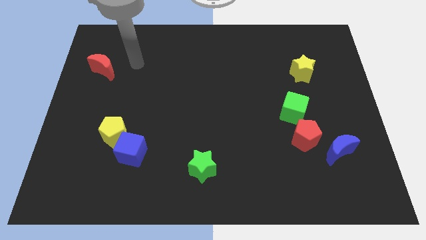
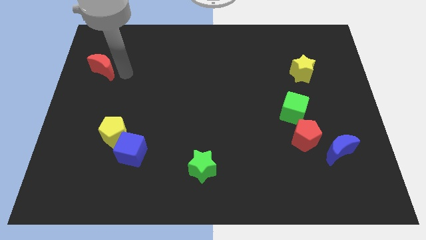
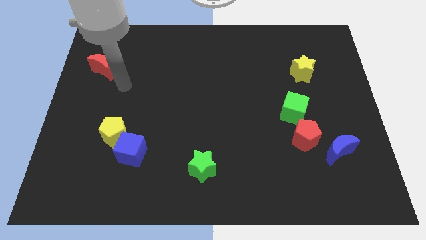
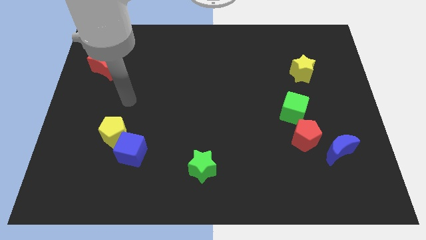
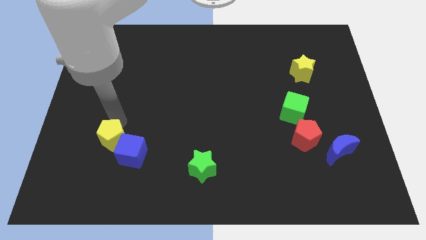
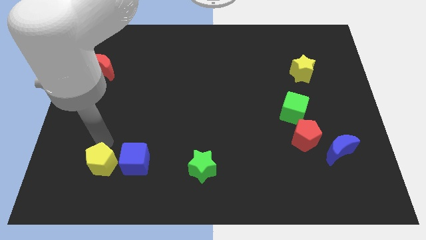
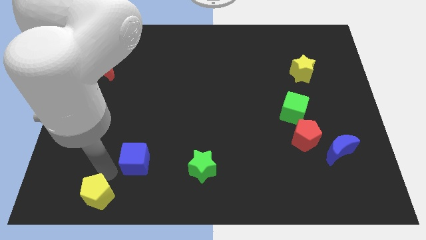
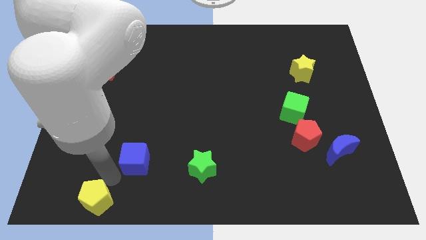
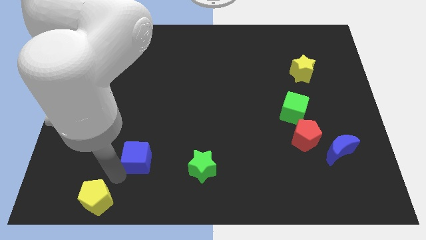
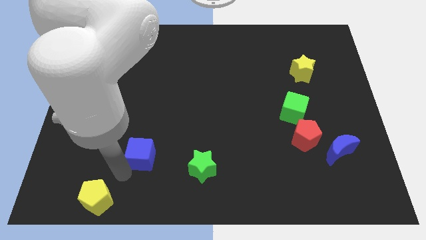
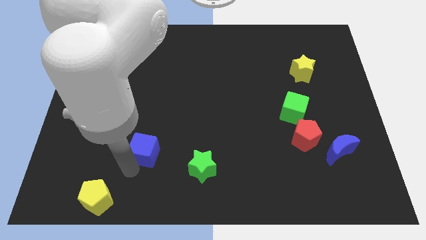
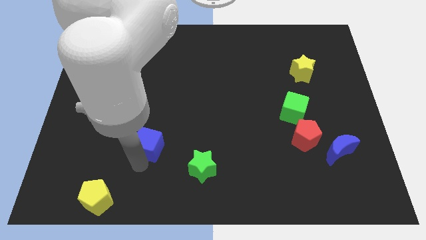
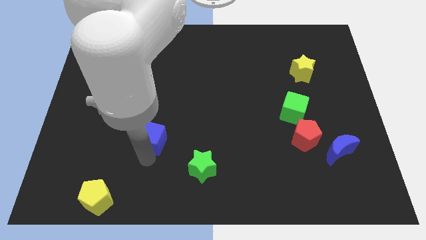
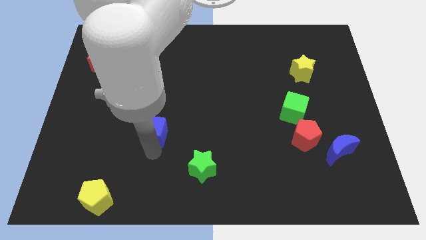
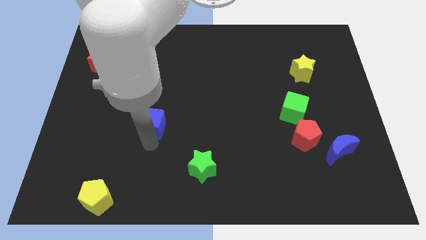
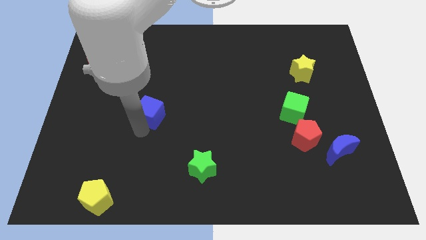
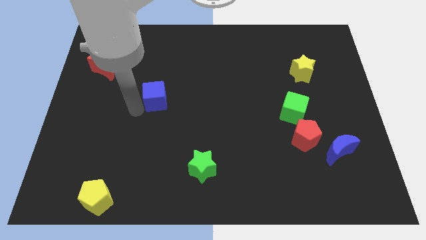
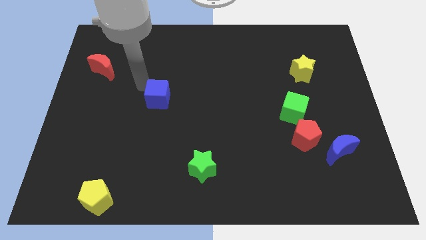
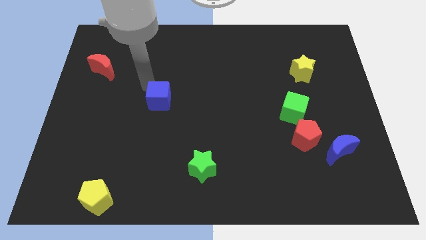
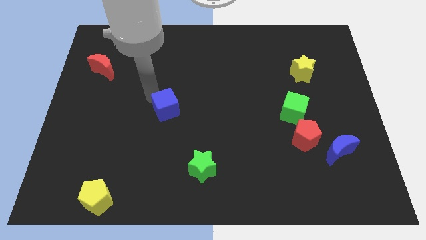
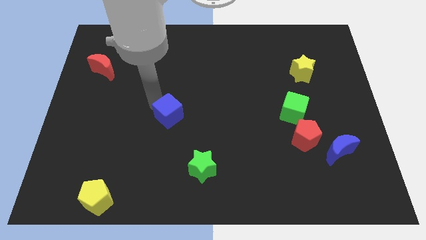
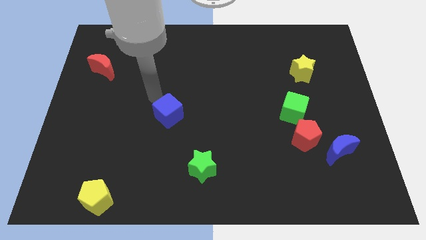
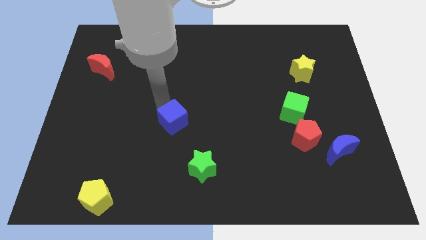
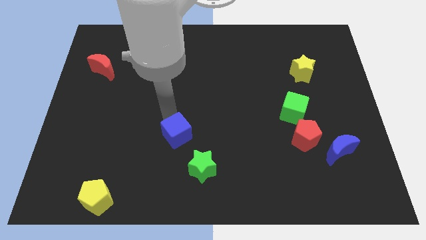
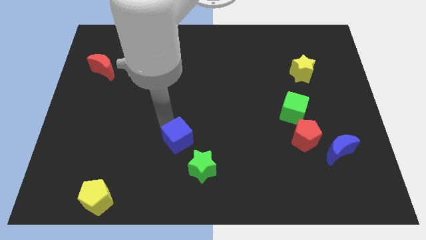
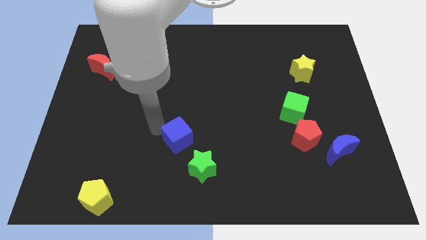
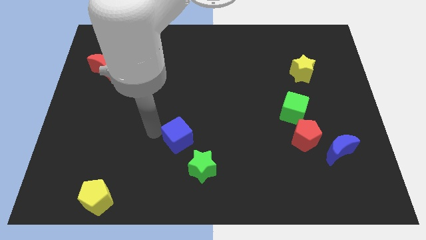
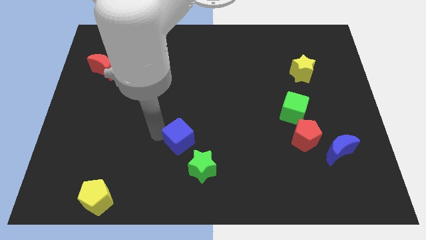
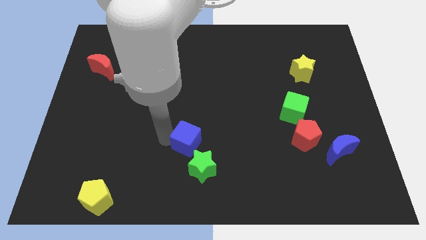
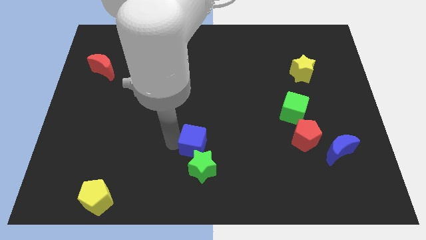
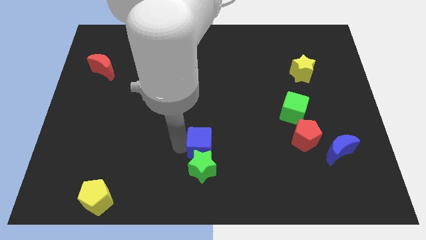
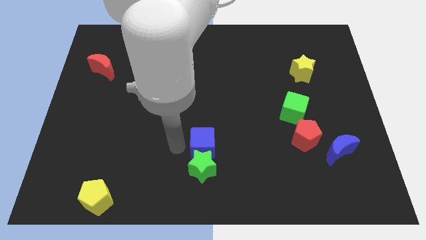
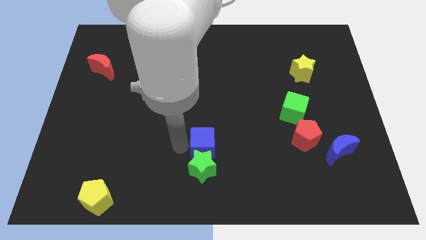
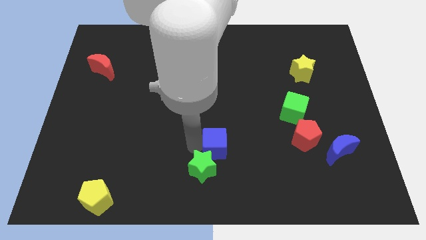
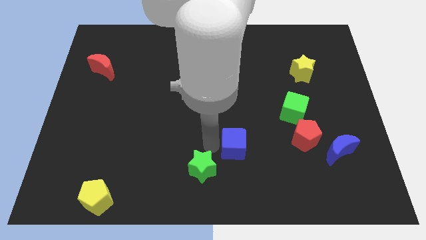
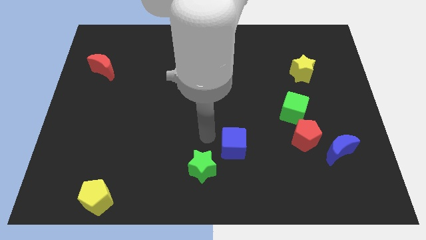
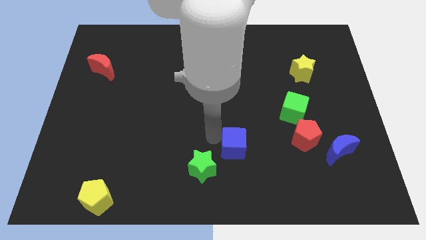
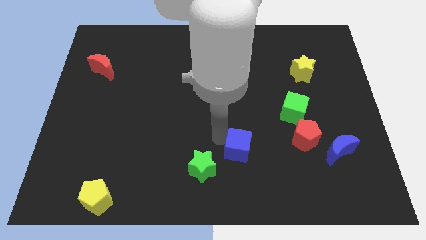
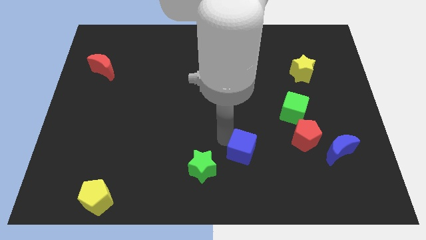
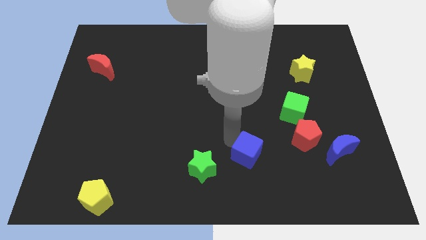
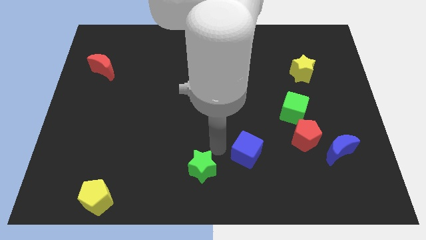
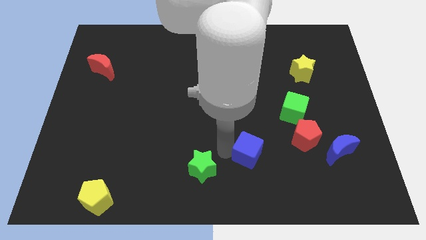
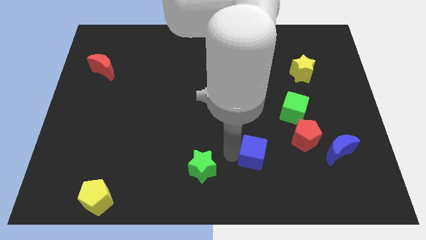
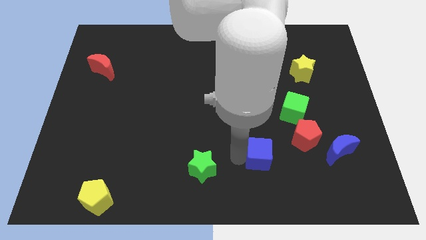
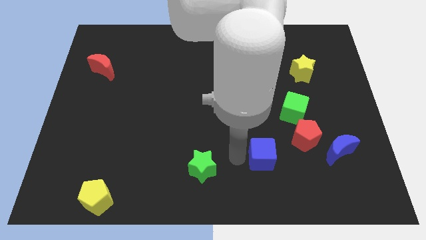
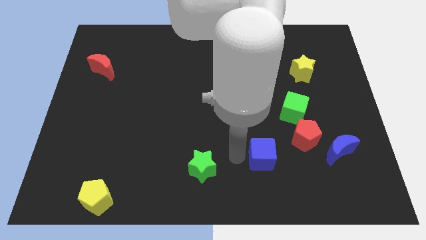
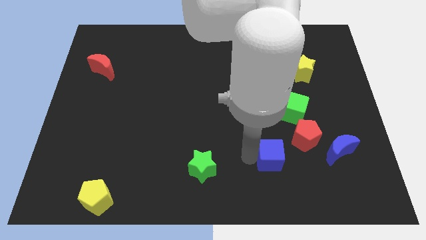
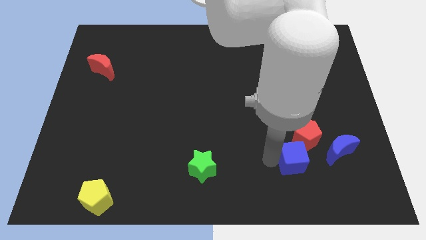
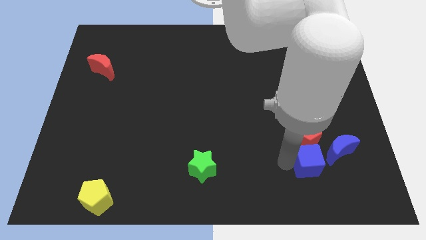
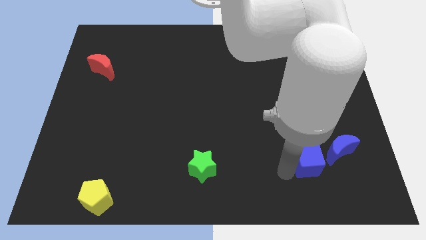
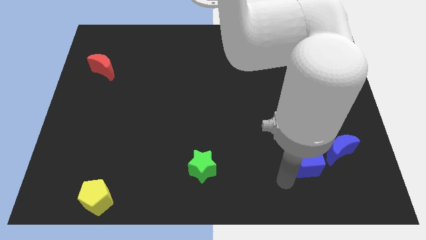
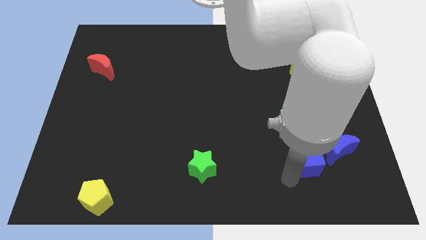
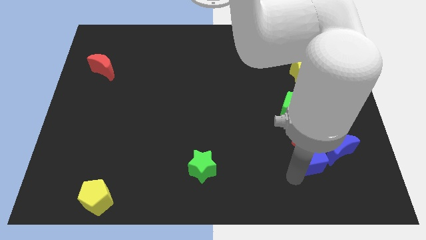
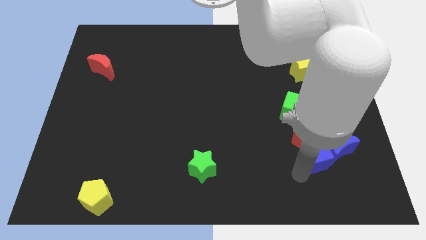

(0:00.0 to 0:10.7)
slide the blue cube next to the blue moon

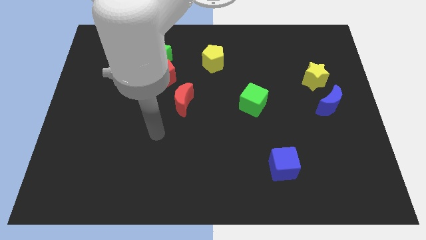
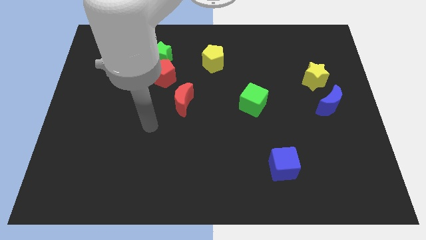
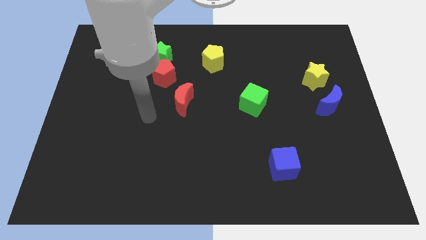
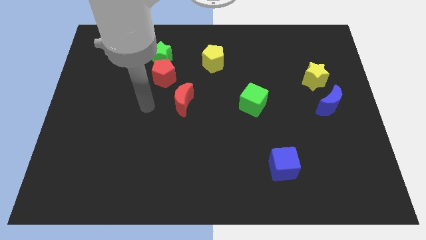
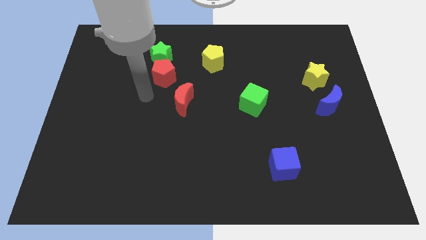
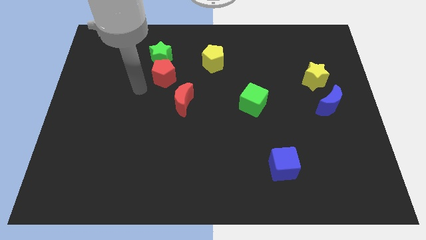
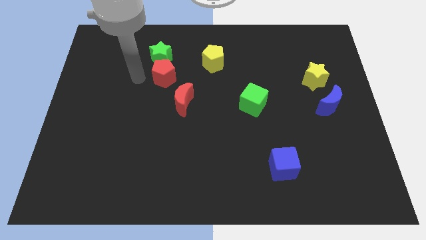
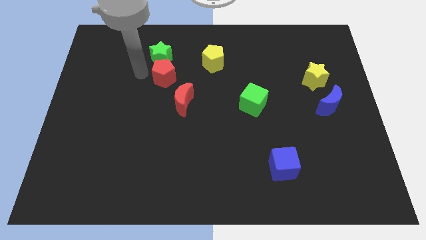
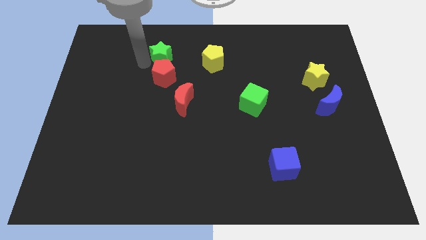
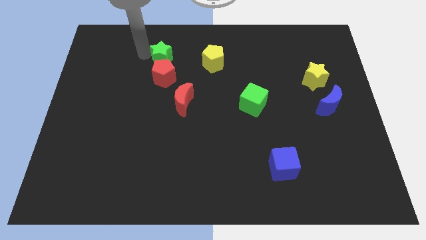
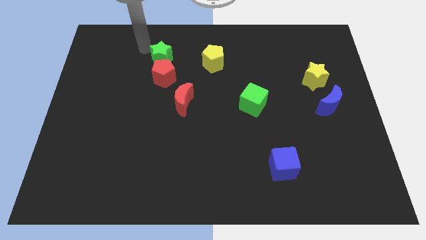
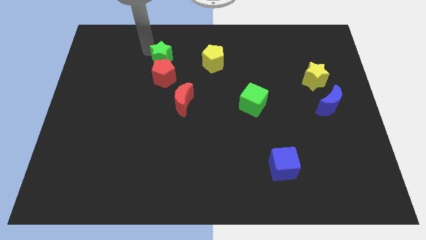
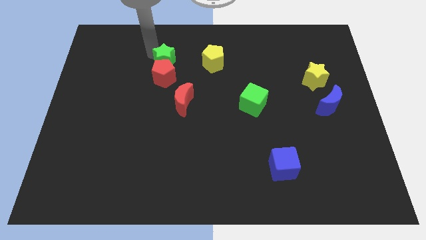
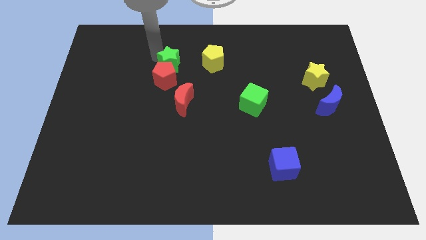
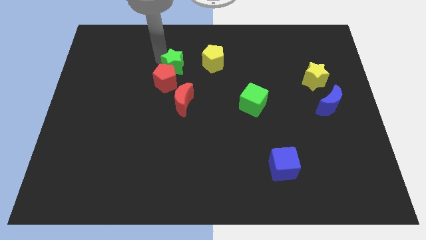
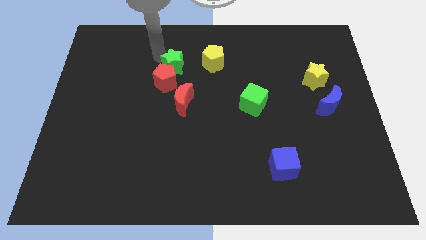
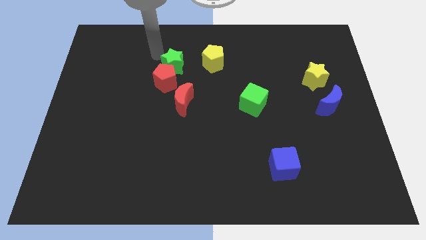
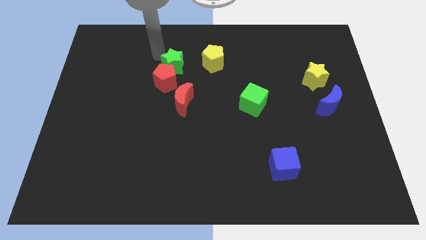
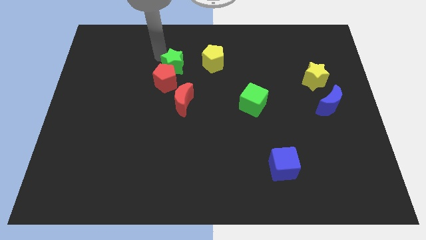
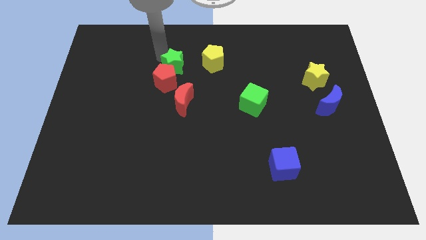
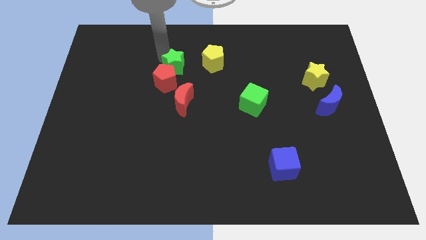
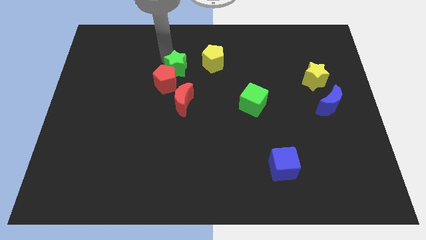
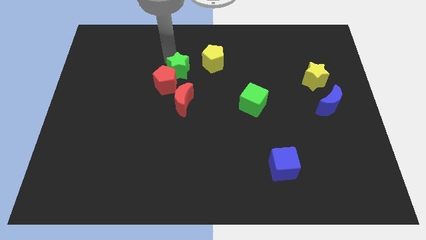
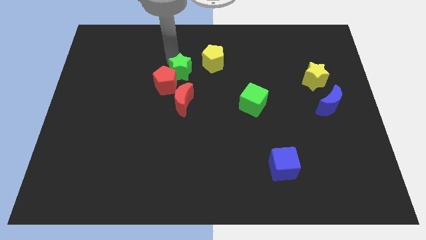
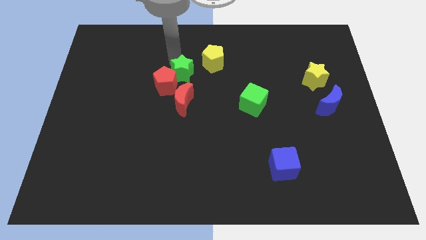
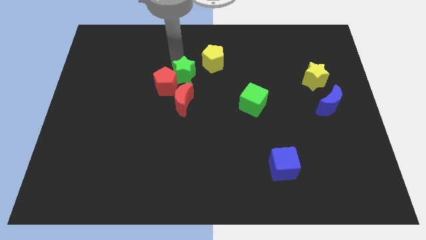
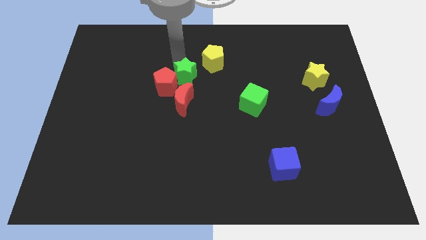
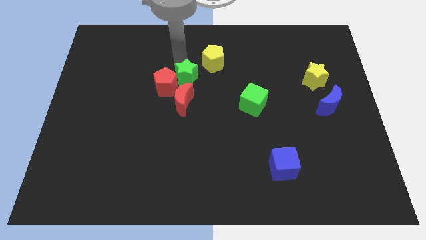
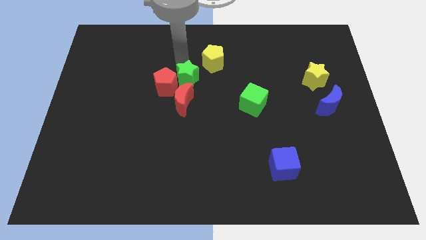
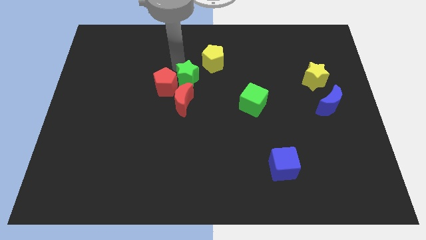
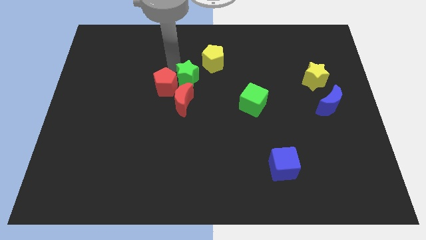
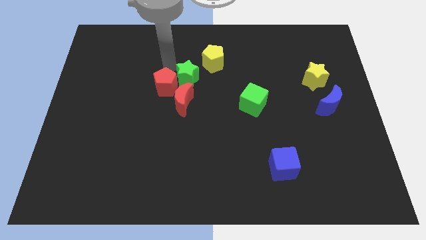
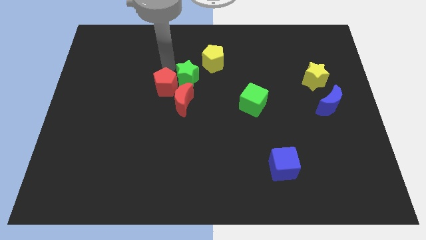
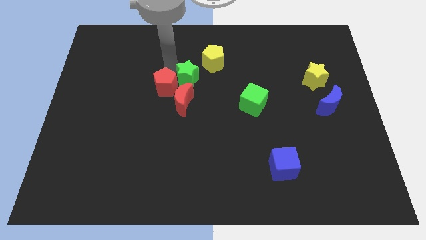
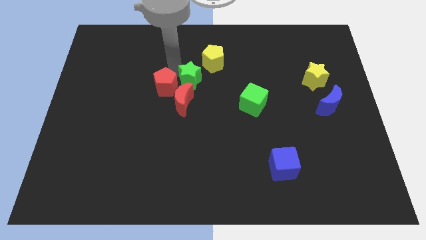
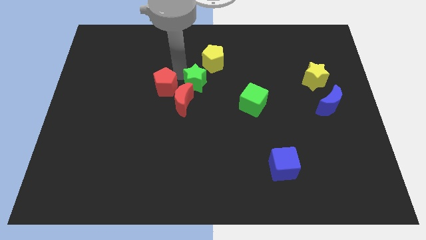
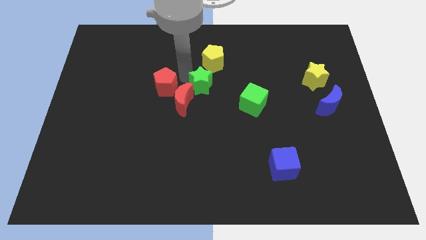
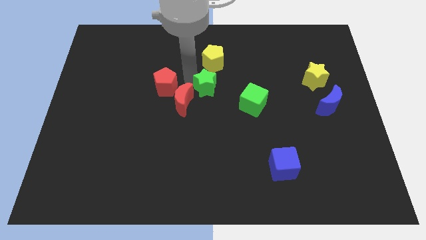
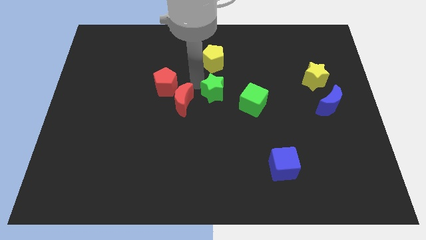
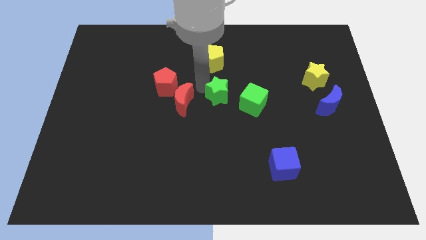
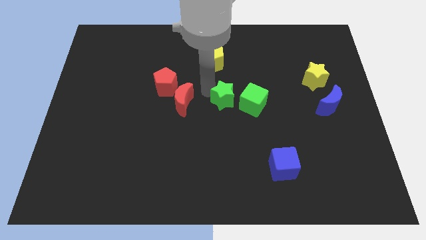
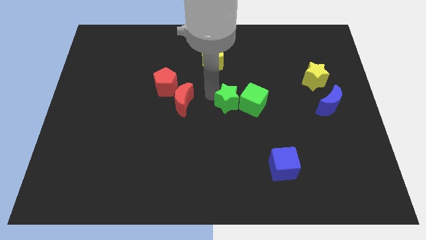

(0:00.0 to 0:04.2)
push the green star towards the green cube
